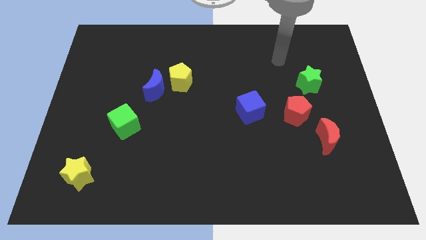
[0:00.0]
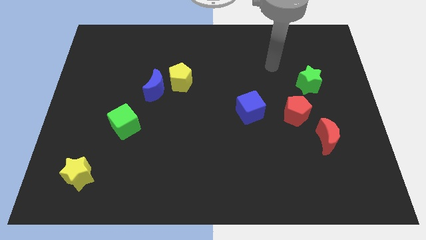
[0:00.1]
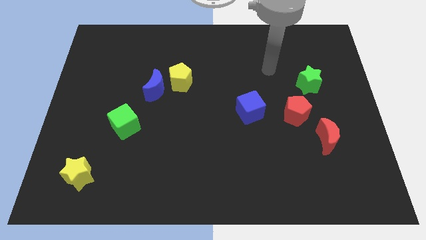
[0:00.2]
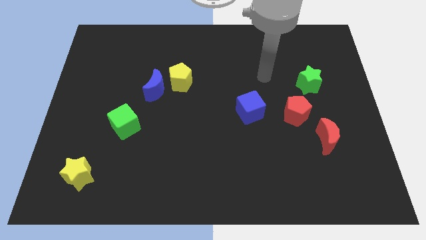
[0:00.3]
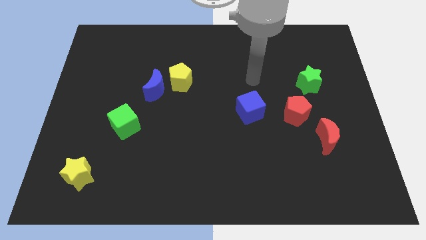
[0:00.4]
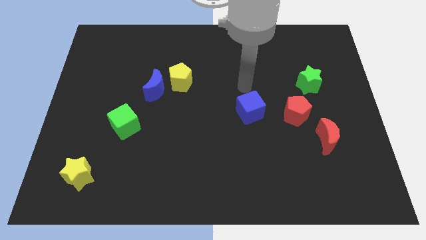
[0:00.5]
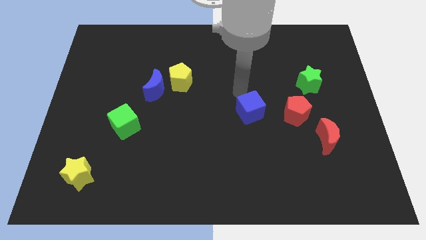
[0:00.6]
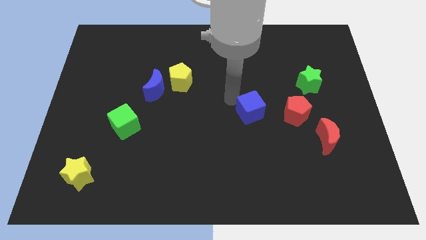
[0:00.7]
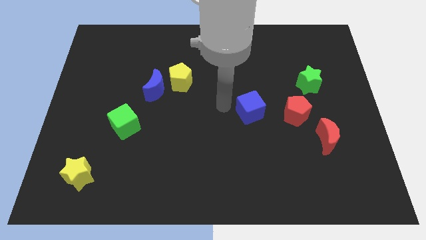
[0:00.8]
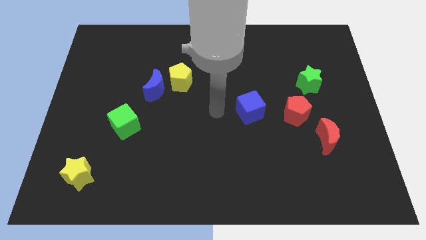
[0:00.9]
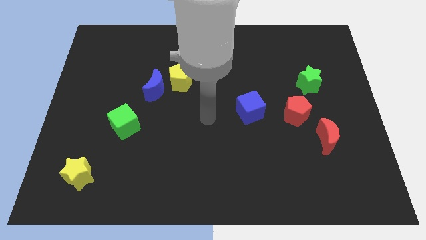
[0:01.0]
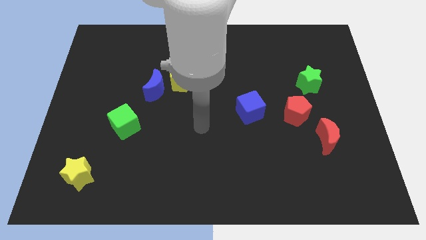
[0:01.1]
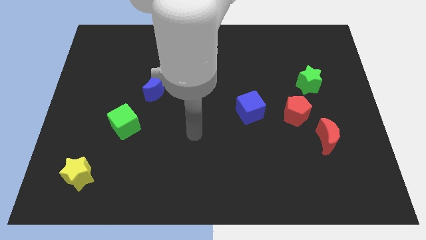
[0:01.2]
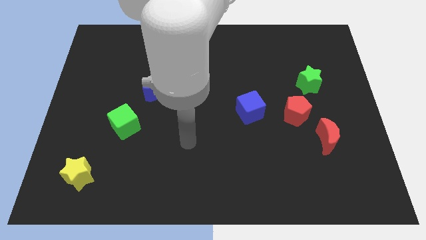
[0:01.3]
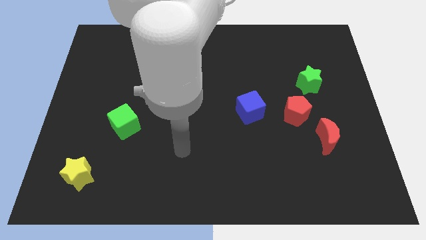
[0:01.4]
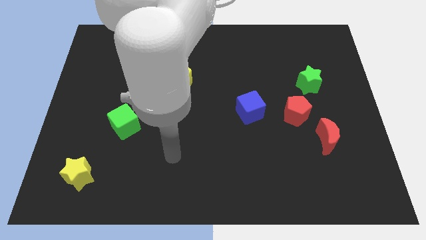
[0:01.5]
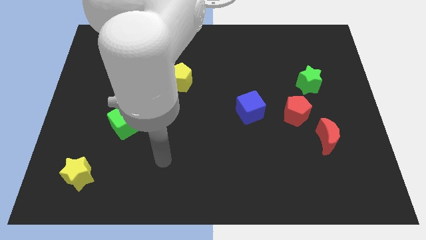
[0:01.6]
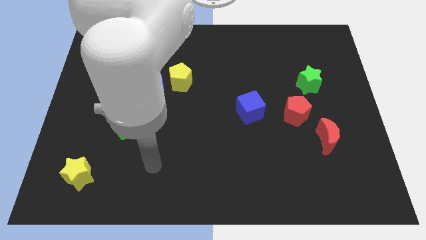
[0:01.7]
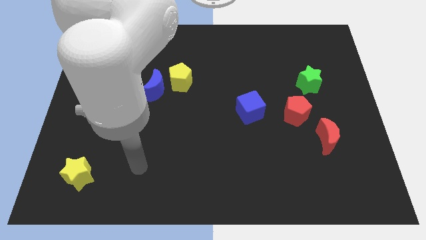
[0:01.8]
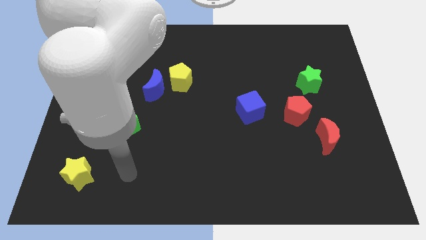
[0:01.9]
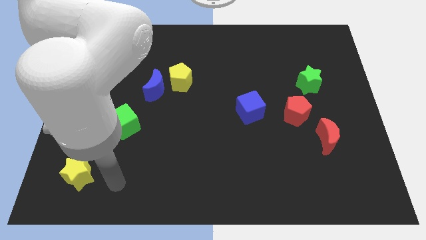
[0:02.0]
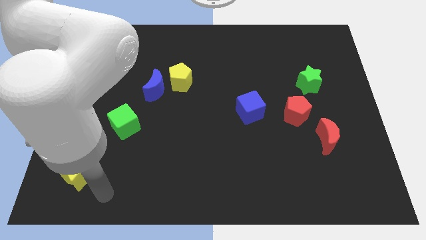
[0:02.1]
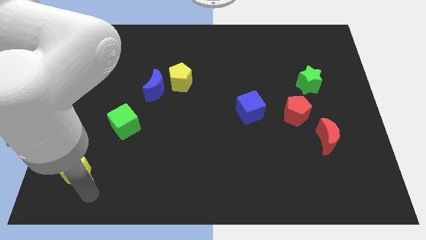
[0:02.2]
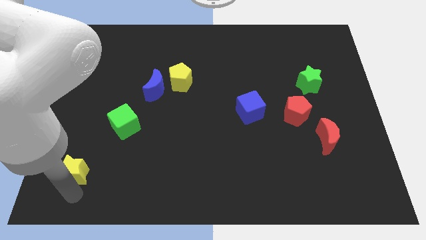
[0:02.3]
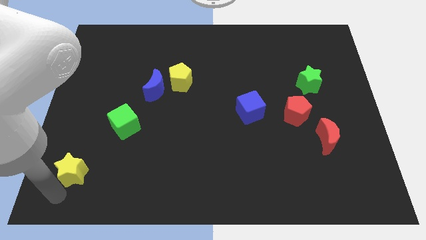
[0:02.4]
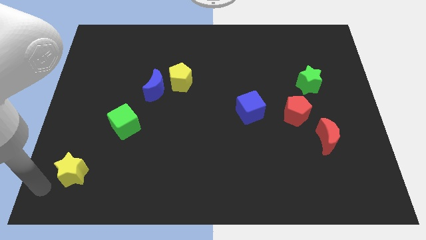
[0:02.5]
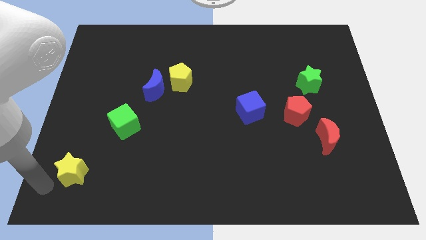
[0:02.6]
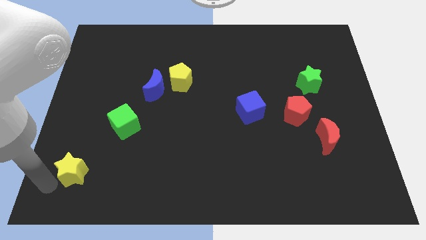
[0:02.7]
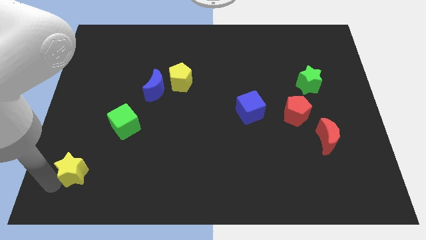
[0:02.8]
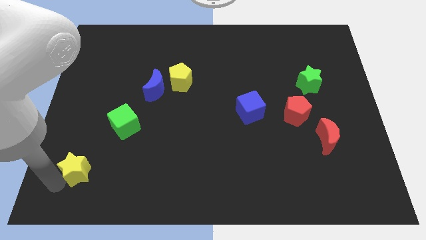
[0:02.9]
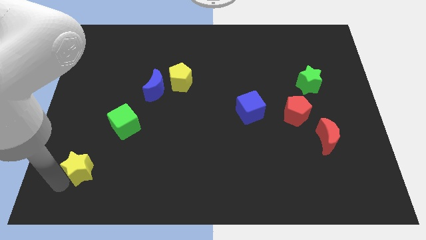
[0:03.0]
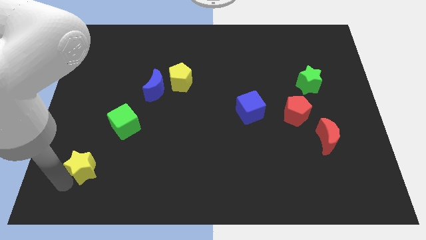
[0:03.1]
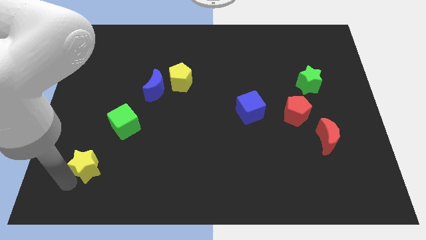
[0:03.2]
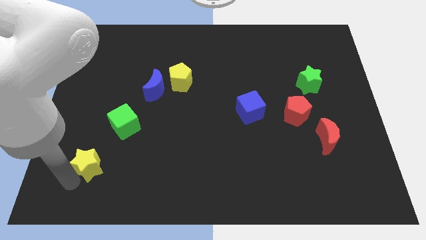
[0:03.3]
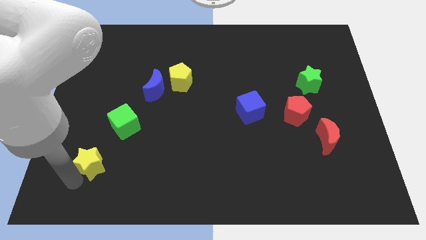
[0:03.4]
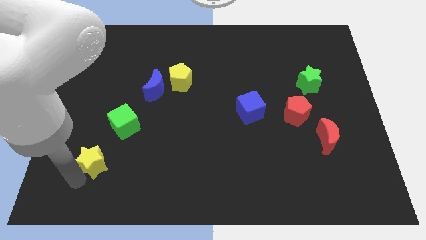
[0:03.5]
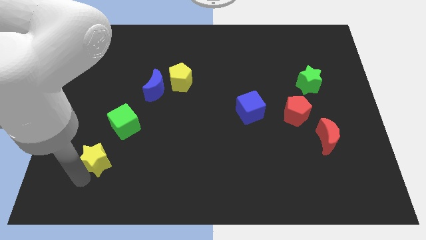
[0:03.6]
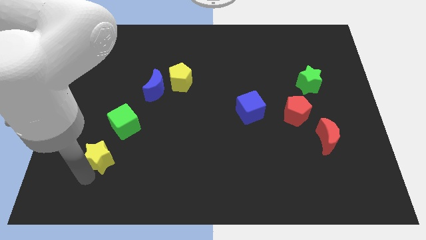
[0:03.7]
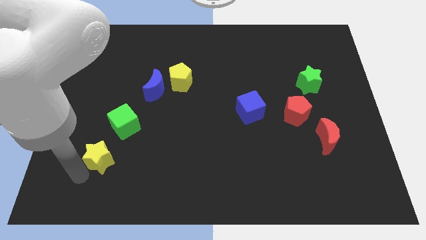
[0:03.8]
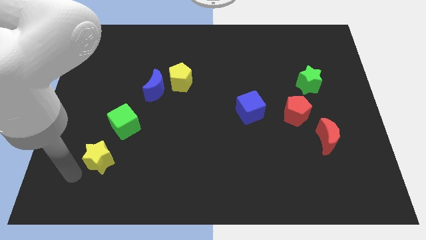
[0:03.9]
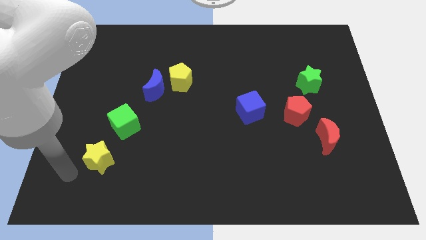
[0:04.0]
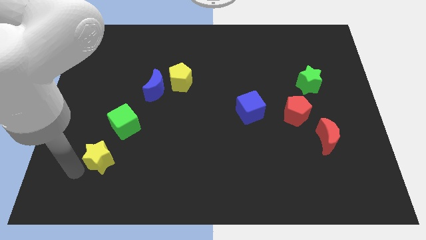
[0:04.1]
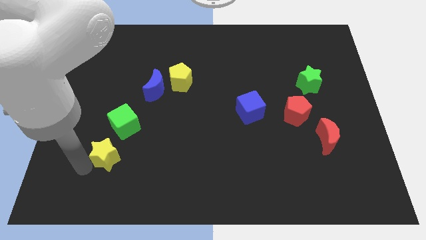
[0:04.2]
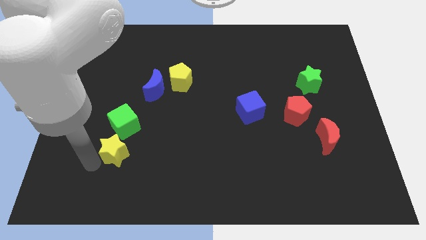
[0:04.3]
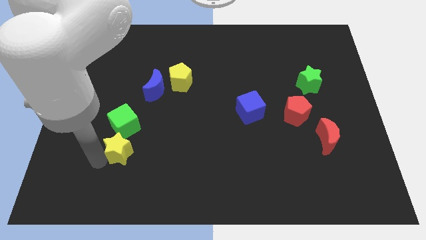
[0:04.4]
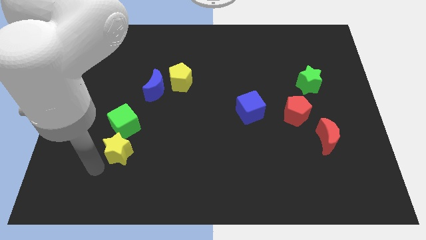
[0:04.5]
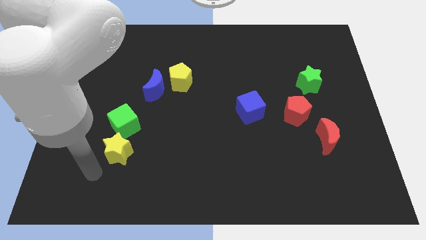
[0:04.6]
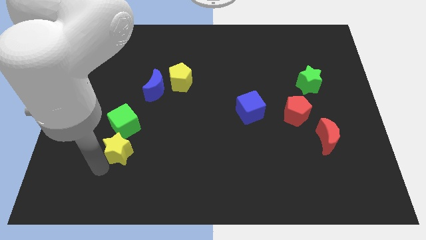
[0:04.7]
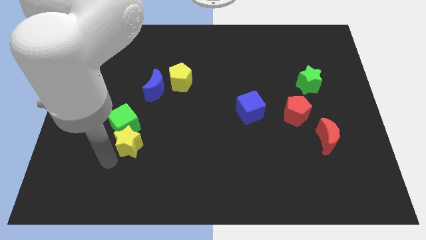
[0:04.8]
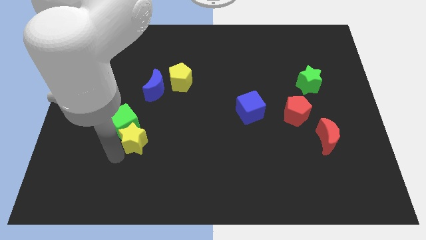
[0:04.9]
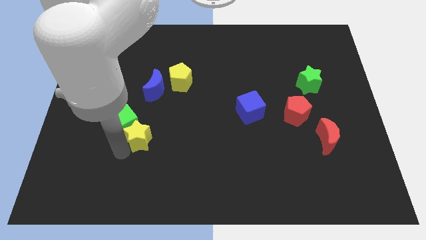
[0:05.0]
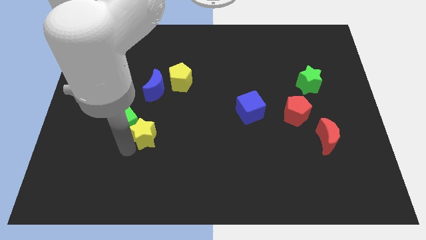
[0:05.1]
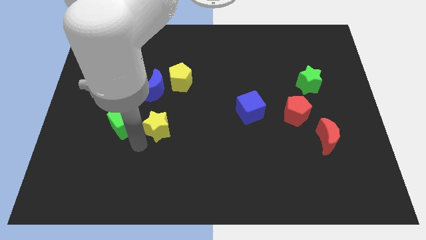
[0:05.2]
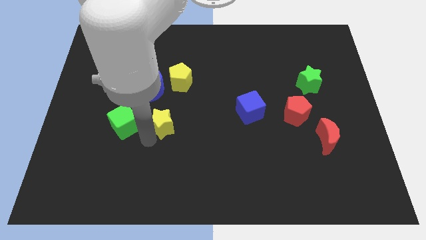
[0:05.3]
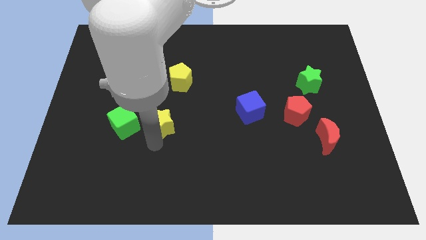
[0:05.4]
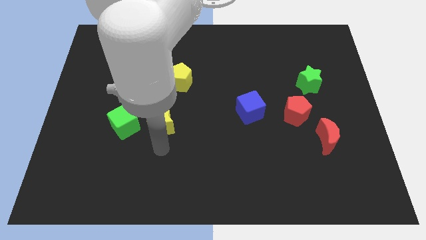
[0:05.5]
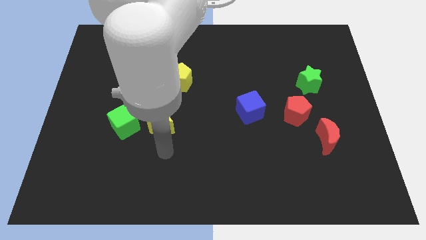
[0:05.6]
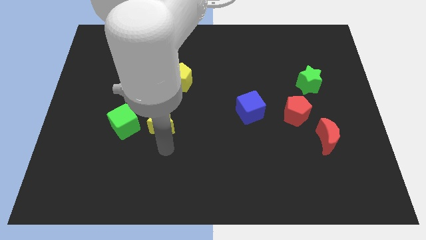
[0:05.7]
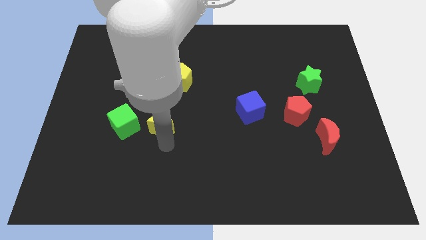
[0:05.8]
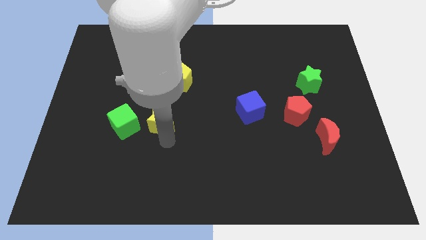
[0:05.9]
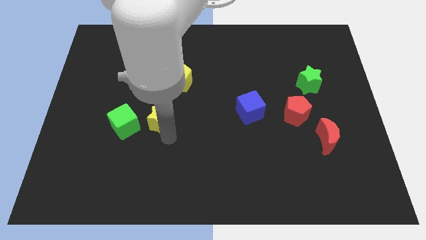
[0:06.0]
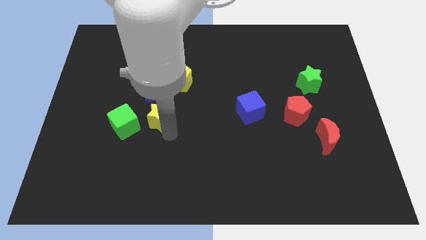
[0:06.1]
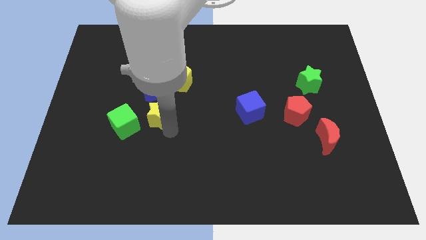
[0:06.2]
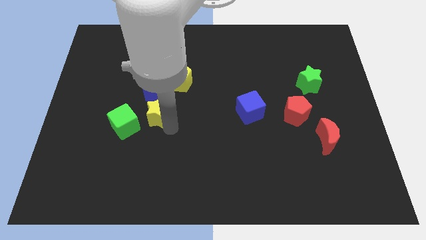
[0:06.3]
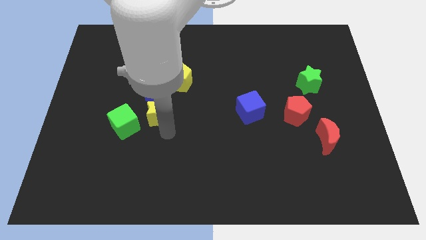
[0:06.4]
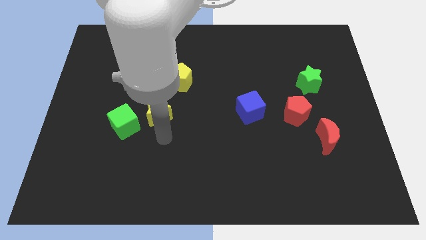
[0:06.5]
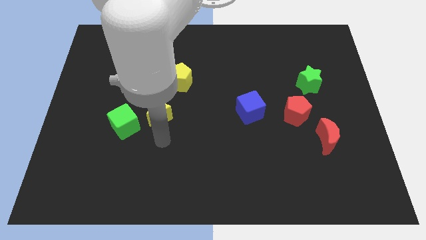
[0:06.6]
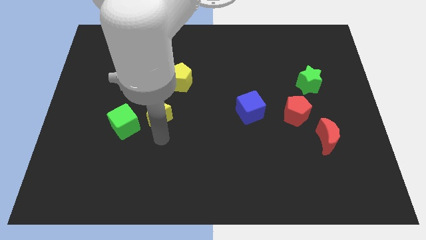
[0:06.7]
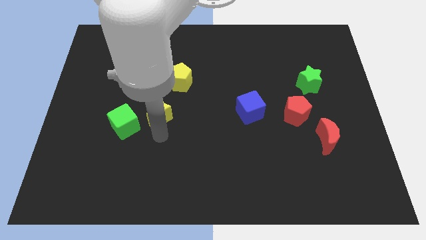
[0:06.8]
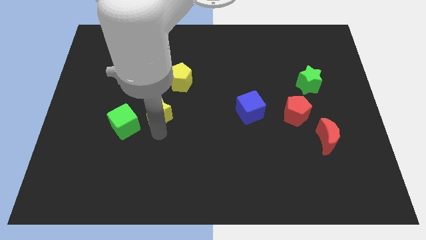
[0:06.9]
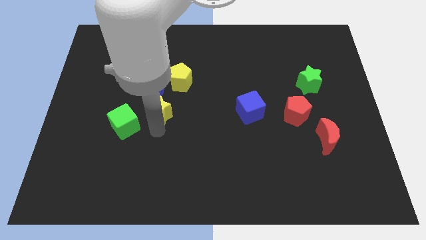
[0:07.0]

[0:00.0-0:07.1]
put the yellow star to the bottom left side of the yellow pentagon
